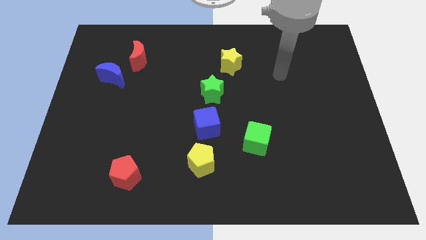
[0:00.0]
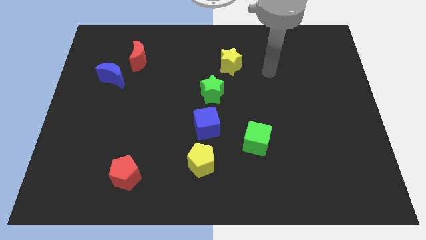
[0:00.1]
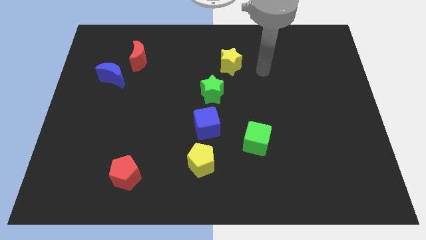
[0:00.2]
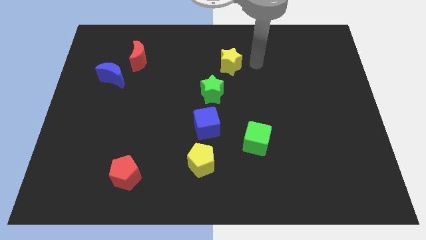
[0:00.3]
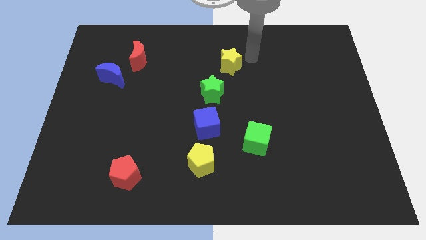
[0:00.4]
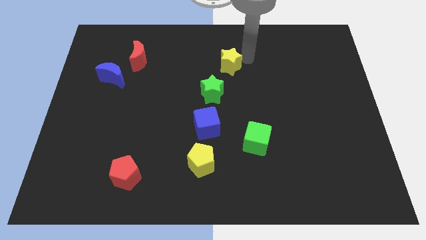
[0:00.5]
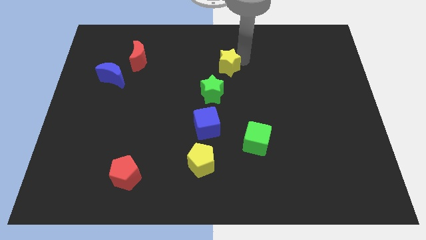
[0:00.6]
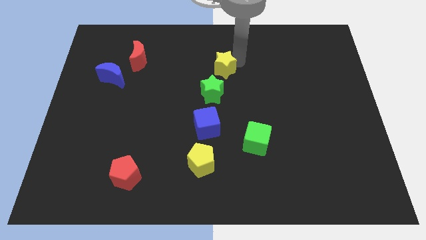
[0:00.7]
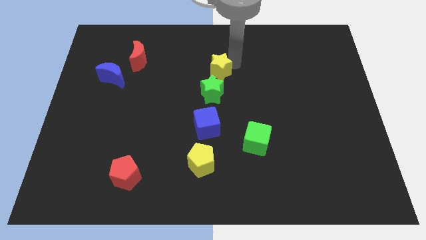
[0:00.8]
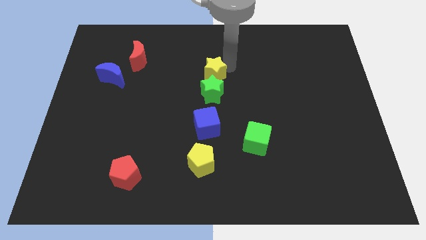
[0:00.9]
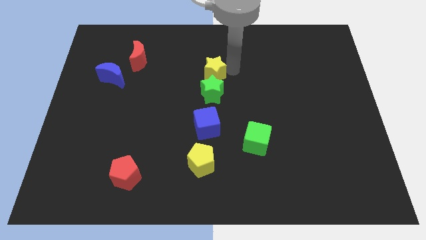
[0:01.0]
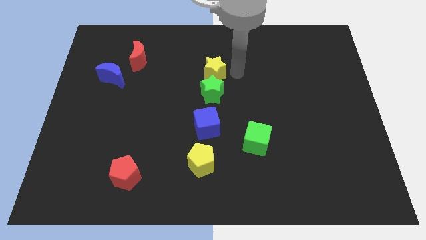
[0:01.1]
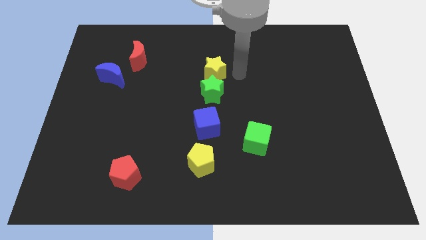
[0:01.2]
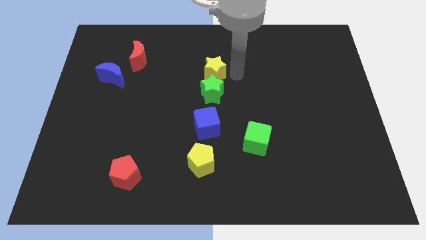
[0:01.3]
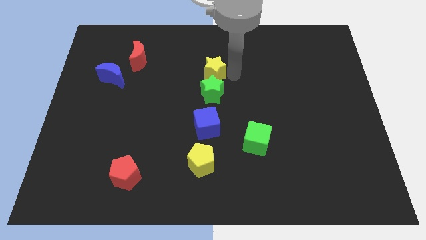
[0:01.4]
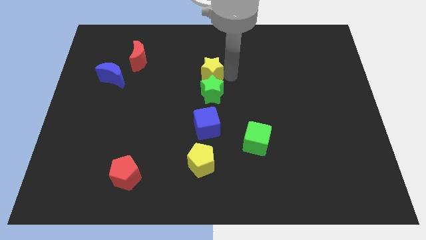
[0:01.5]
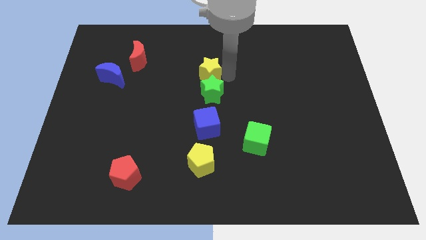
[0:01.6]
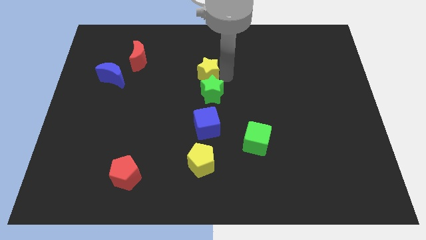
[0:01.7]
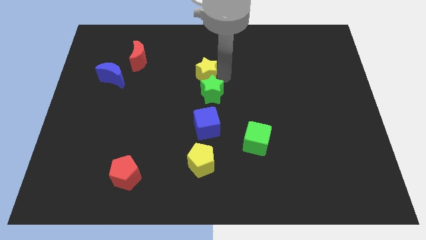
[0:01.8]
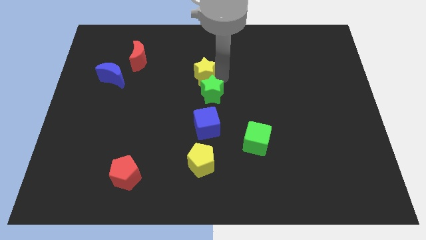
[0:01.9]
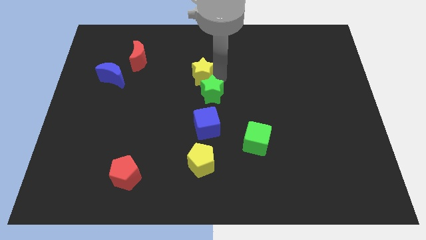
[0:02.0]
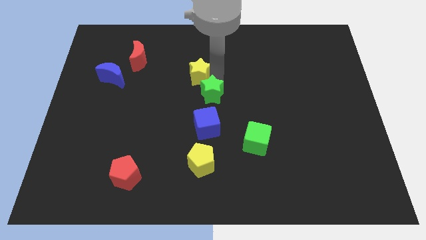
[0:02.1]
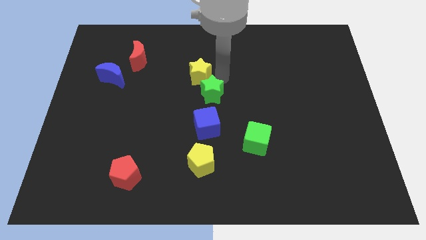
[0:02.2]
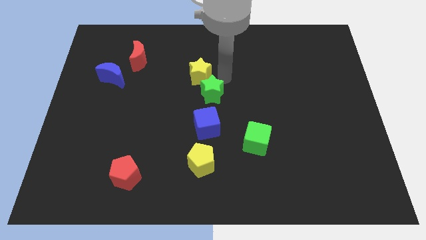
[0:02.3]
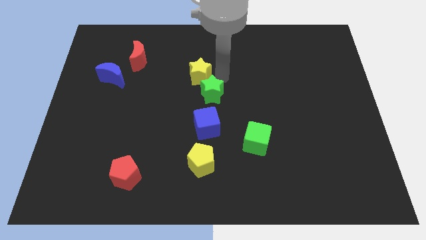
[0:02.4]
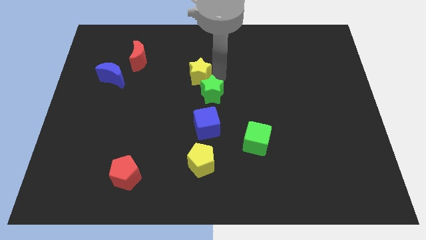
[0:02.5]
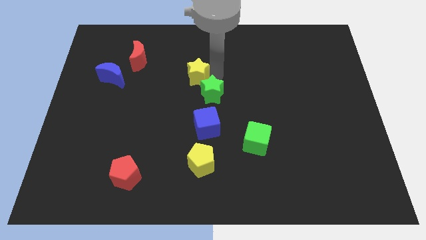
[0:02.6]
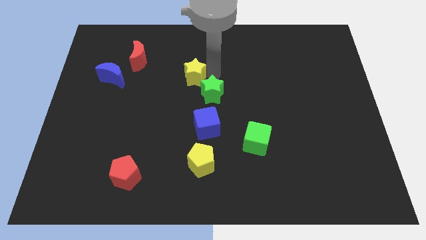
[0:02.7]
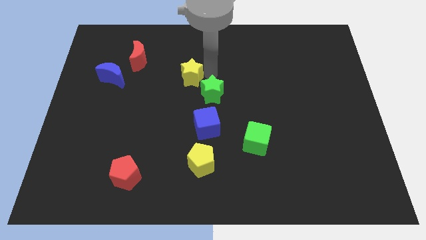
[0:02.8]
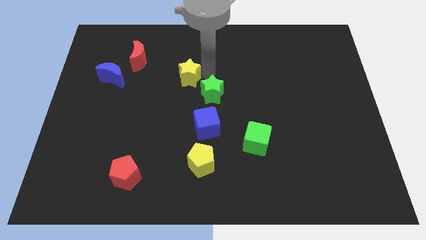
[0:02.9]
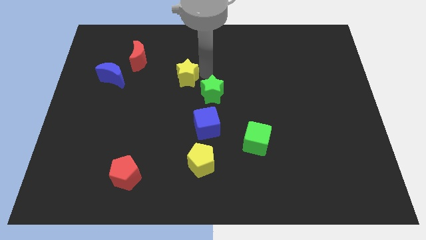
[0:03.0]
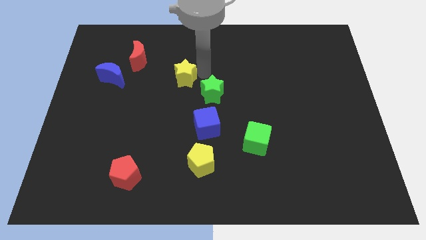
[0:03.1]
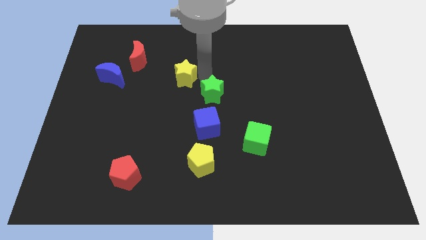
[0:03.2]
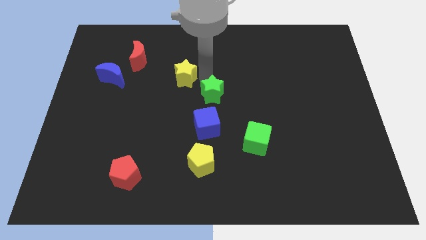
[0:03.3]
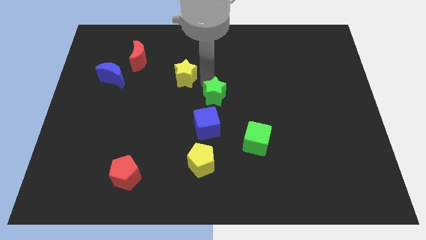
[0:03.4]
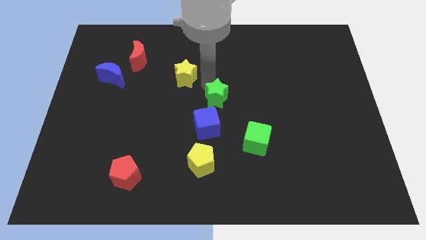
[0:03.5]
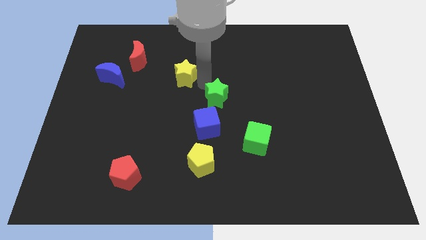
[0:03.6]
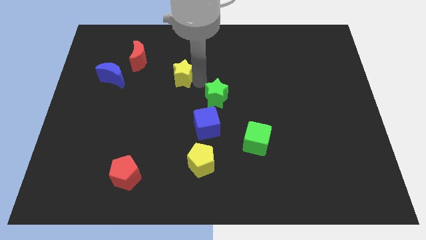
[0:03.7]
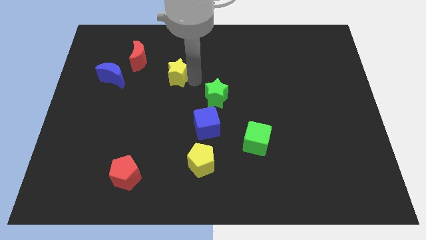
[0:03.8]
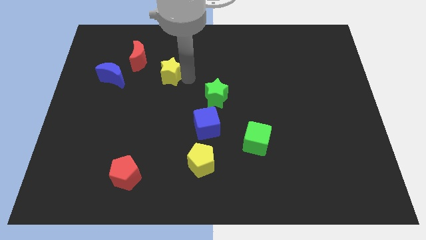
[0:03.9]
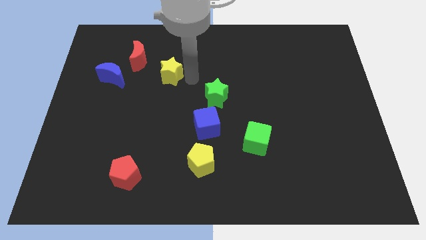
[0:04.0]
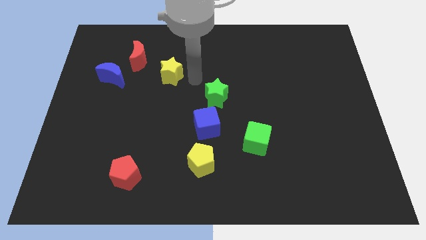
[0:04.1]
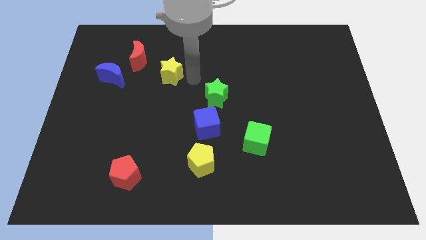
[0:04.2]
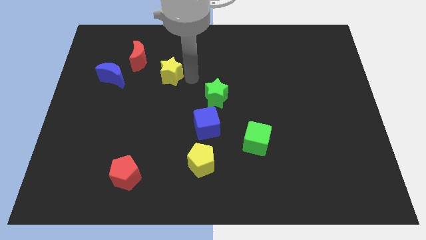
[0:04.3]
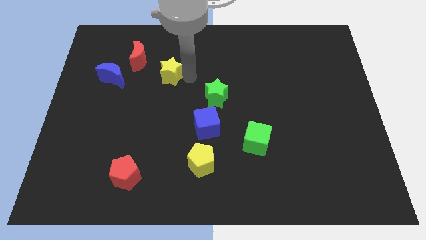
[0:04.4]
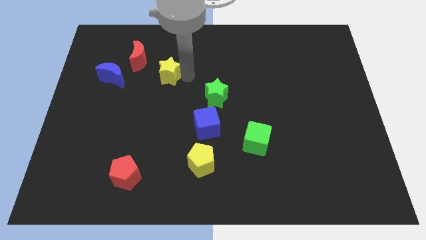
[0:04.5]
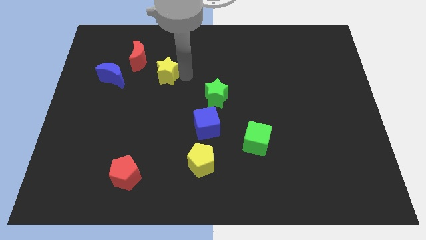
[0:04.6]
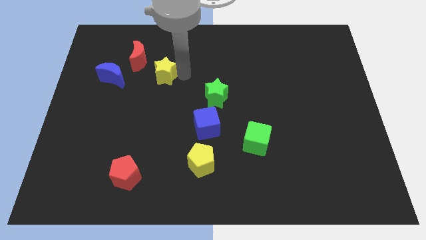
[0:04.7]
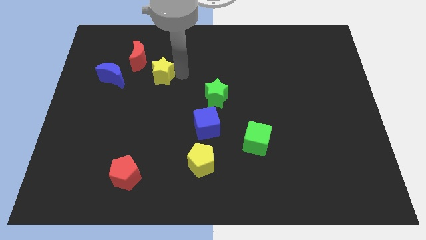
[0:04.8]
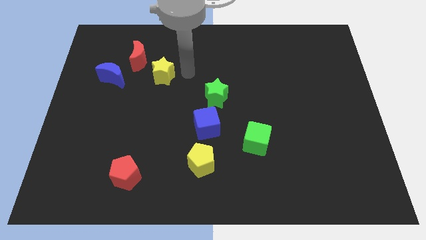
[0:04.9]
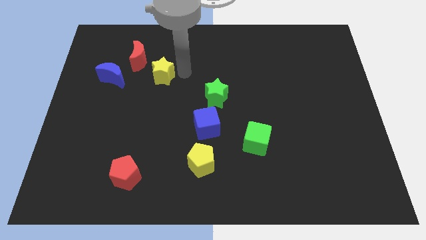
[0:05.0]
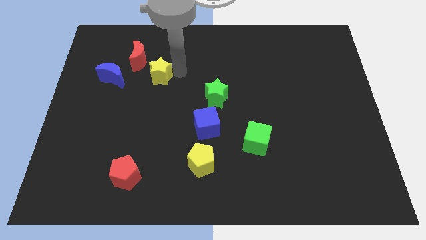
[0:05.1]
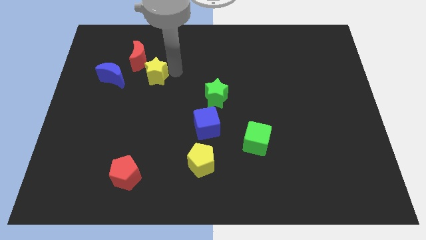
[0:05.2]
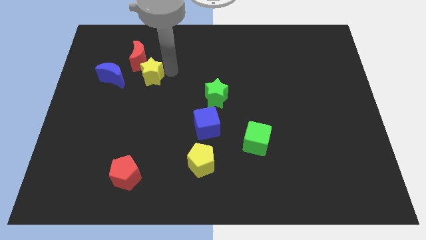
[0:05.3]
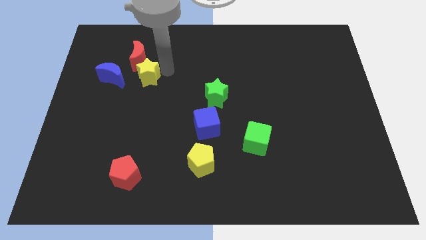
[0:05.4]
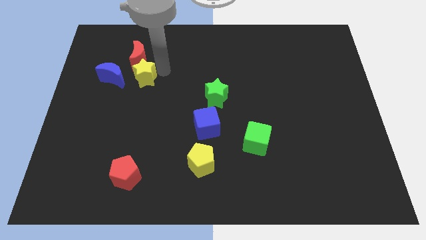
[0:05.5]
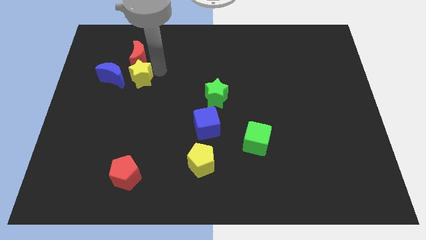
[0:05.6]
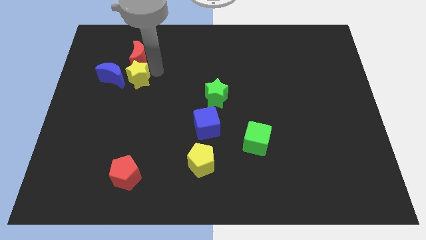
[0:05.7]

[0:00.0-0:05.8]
slide the yellow star to the blue moon

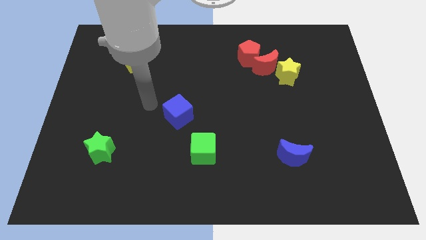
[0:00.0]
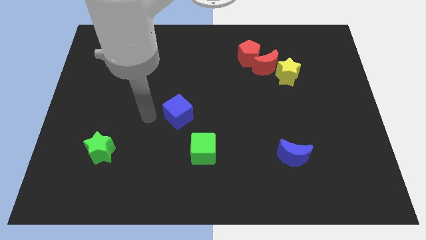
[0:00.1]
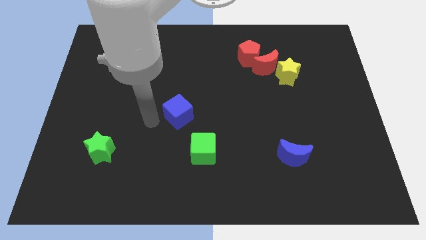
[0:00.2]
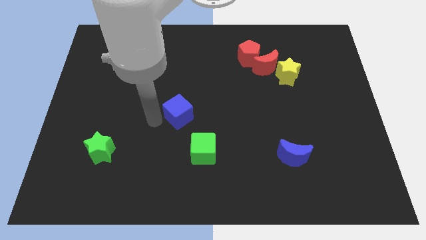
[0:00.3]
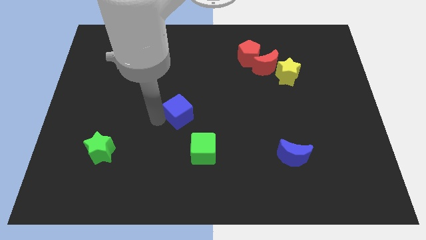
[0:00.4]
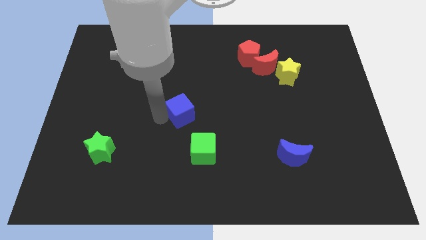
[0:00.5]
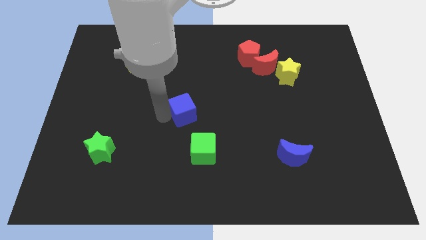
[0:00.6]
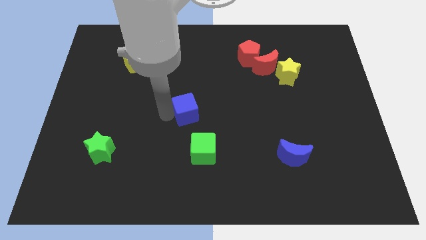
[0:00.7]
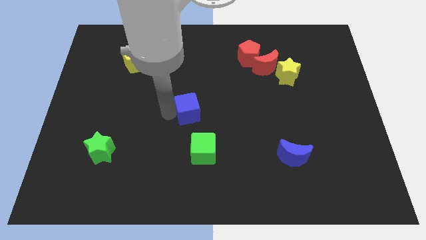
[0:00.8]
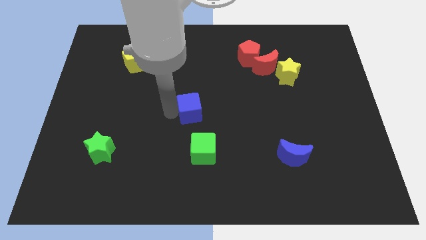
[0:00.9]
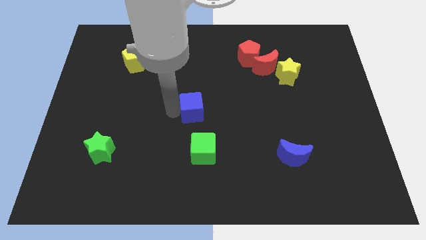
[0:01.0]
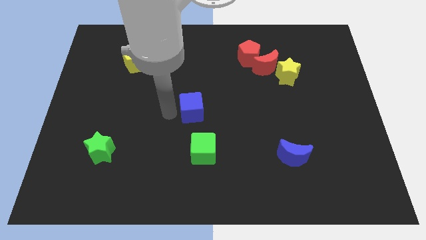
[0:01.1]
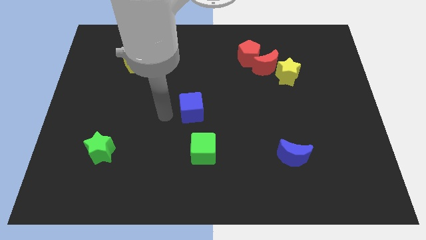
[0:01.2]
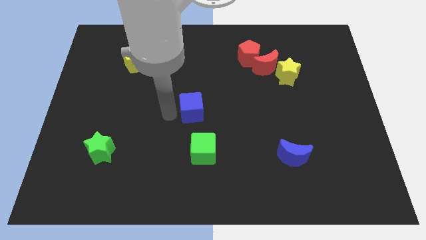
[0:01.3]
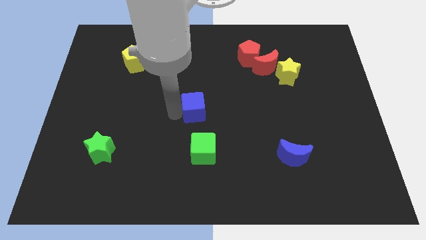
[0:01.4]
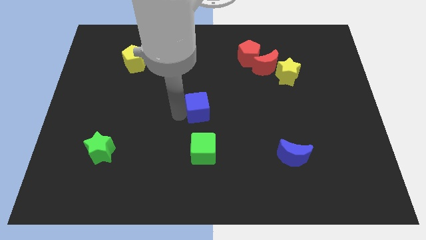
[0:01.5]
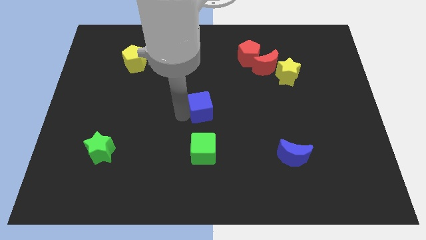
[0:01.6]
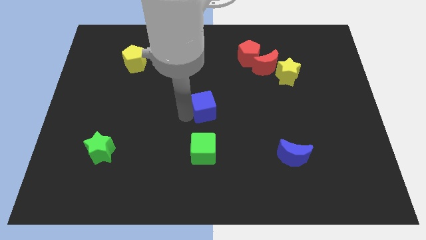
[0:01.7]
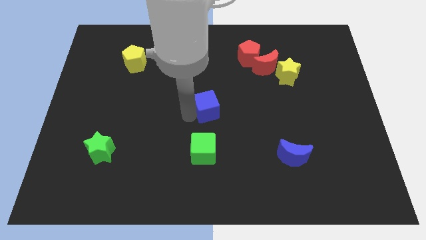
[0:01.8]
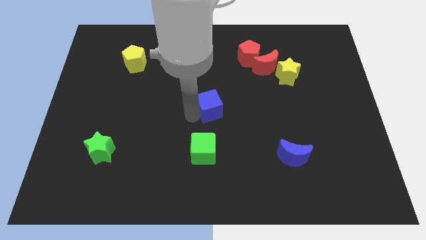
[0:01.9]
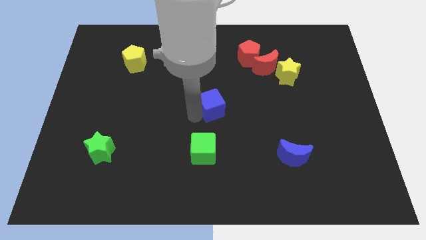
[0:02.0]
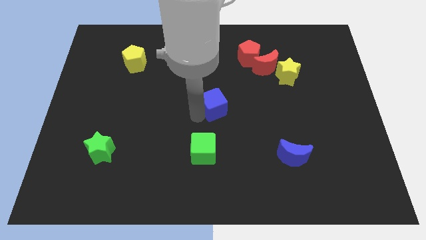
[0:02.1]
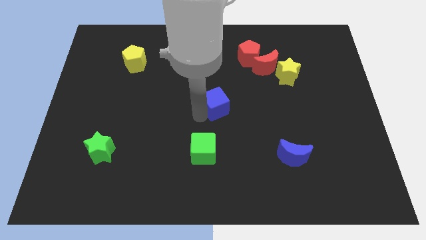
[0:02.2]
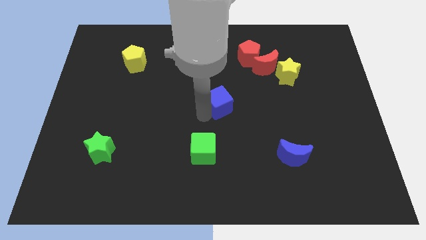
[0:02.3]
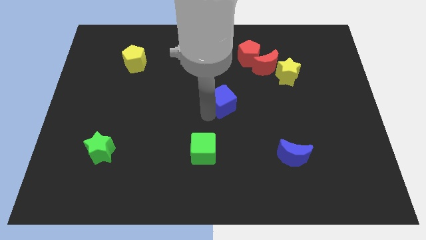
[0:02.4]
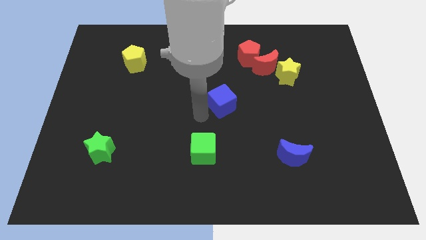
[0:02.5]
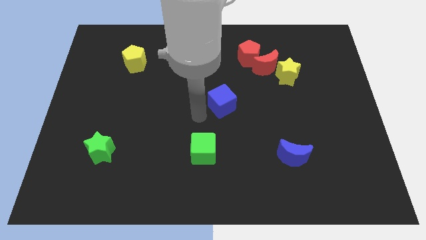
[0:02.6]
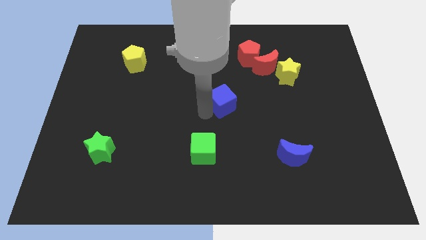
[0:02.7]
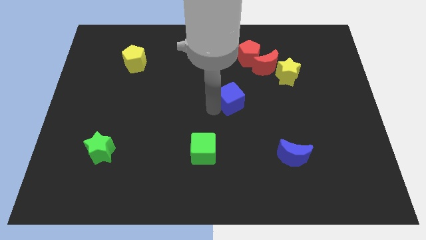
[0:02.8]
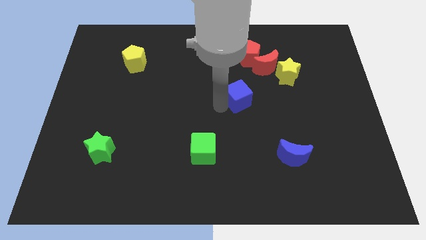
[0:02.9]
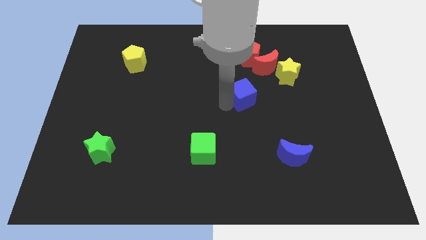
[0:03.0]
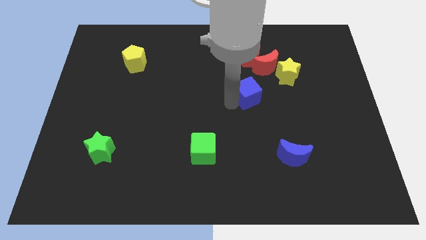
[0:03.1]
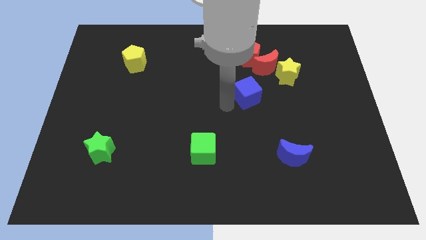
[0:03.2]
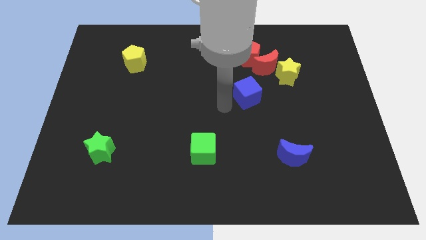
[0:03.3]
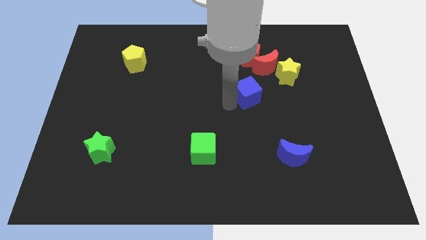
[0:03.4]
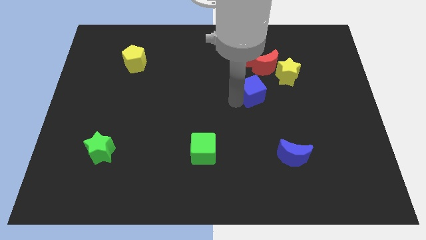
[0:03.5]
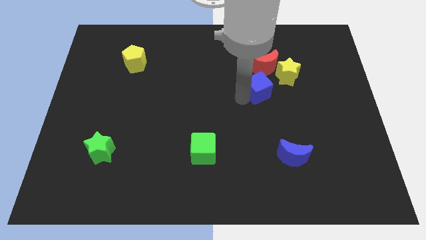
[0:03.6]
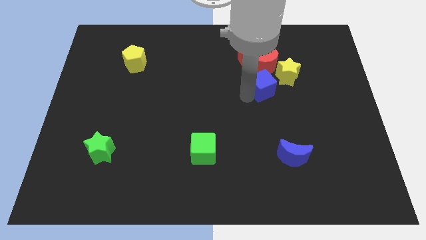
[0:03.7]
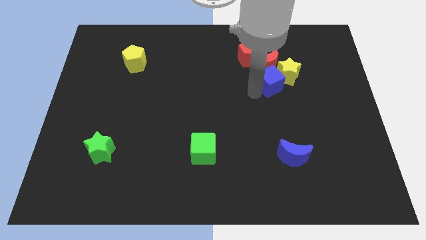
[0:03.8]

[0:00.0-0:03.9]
slide the blue cube to the yellow star
